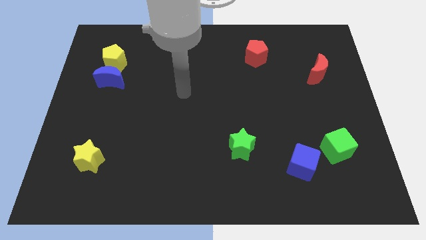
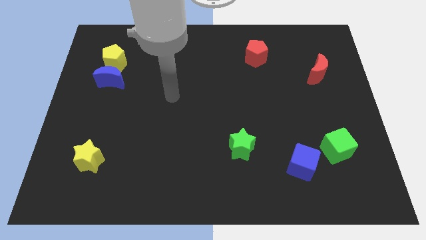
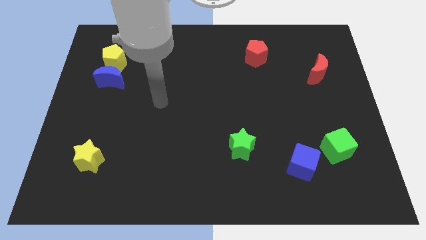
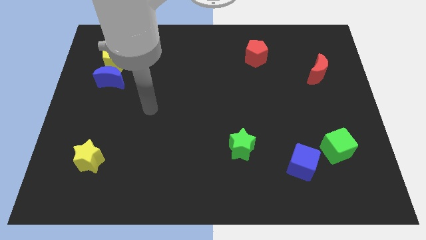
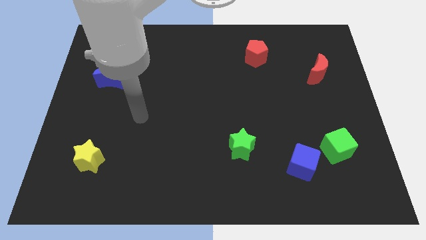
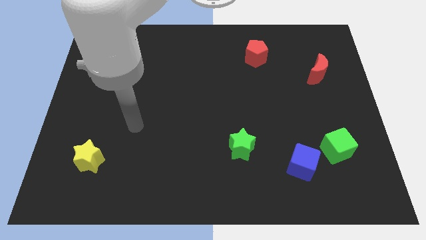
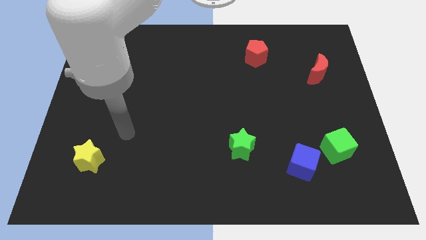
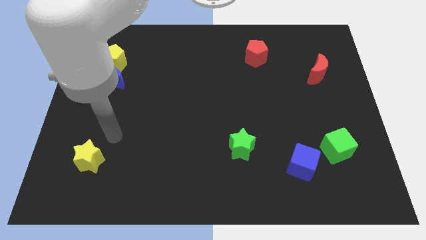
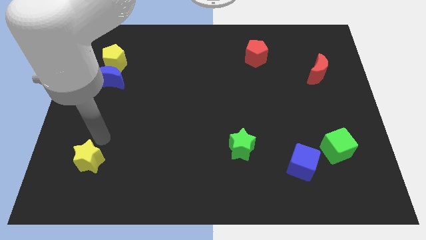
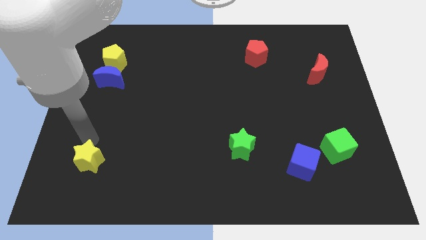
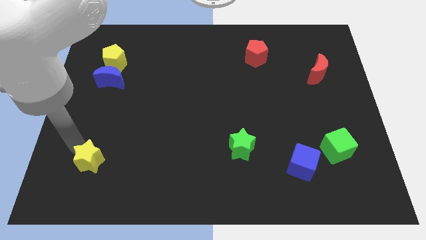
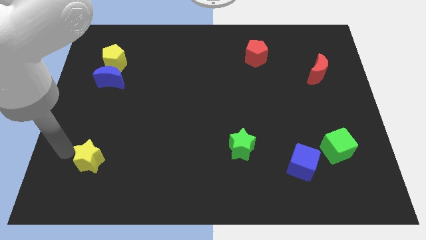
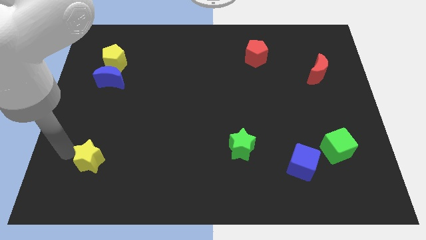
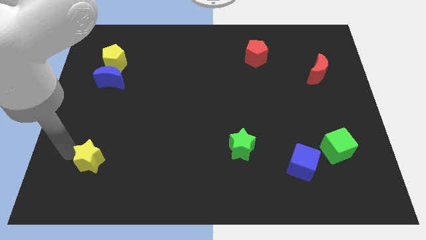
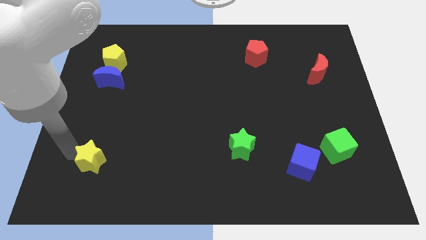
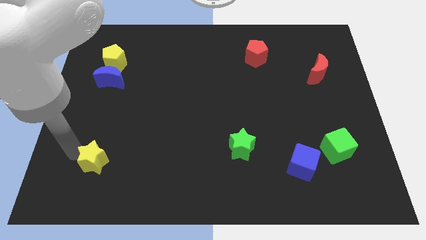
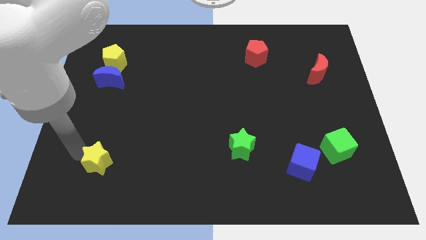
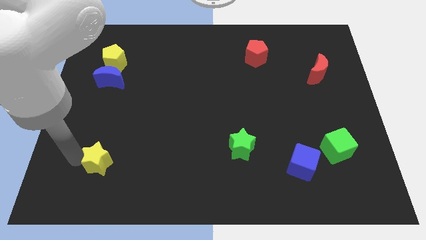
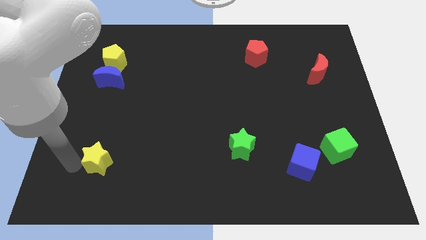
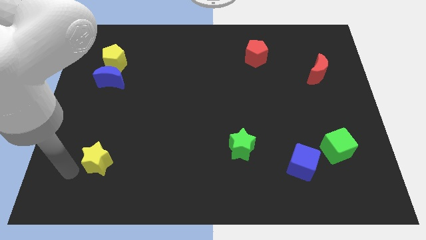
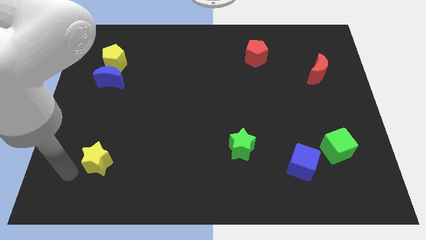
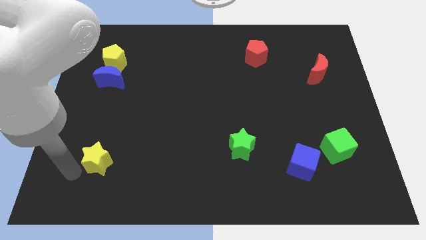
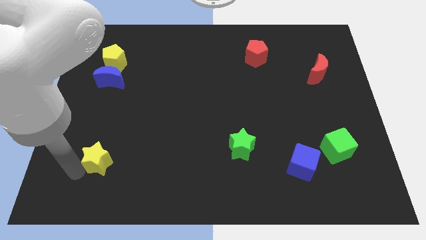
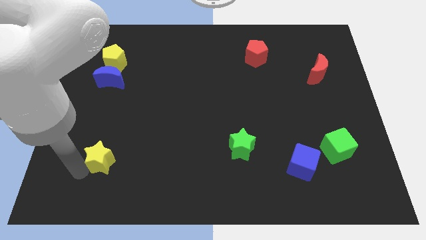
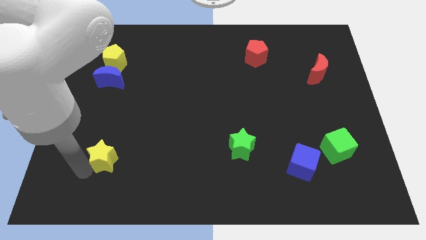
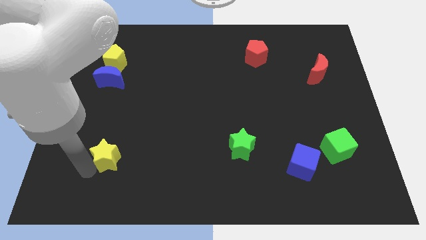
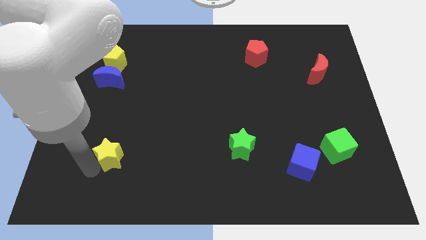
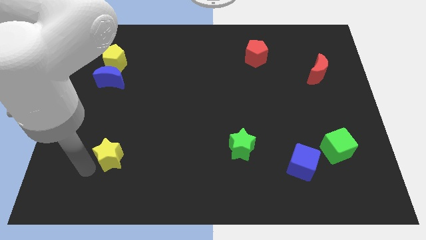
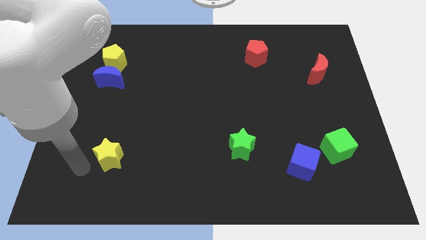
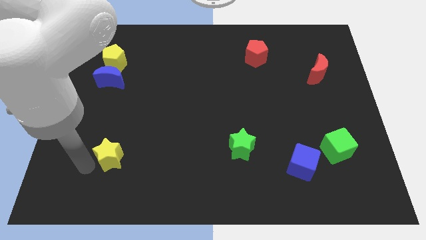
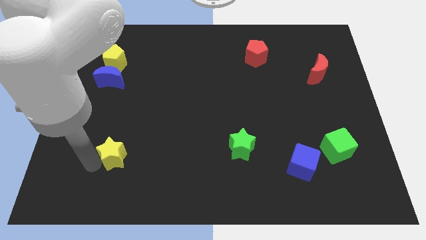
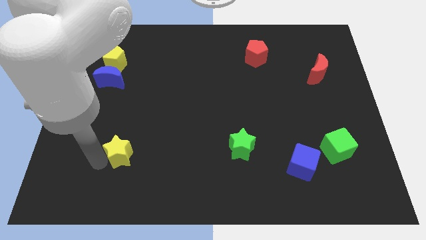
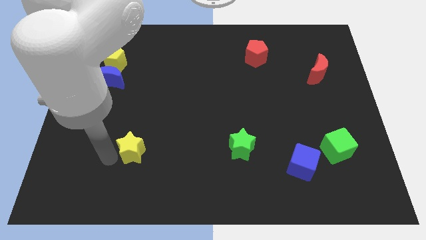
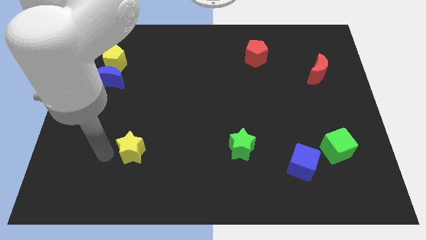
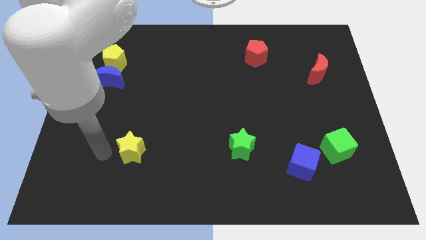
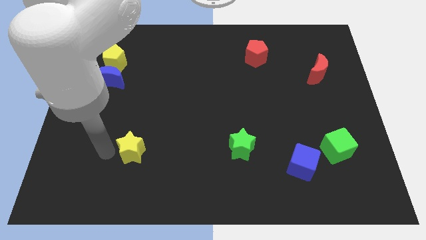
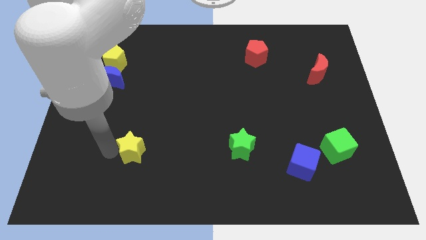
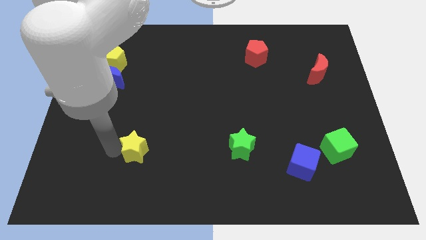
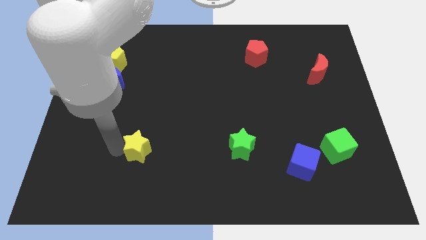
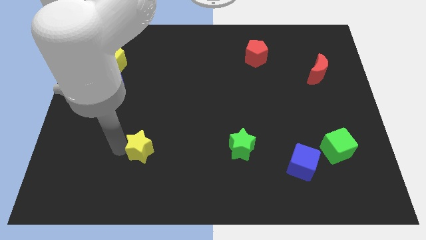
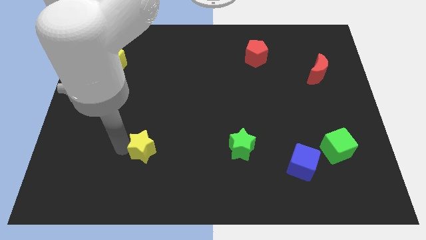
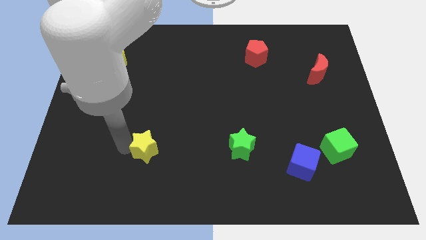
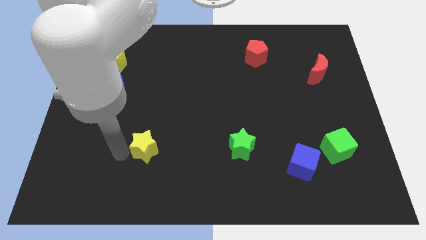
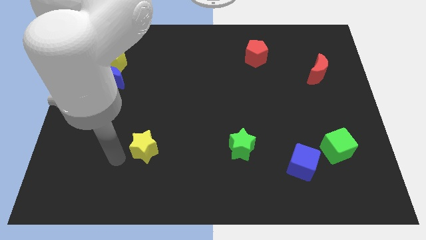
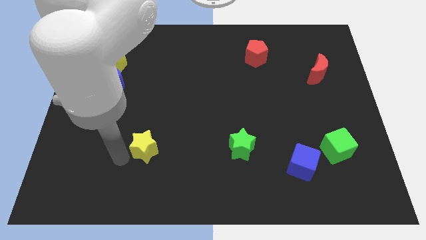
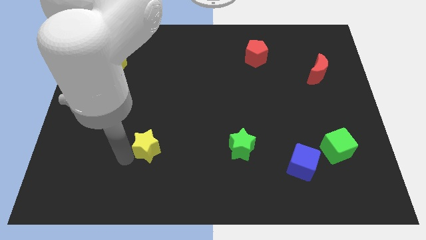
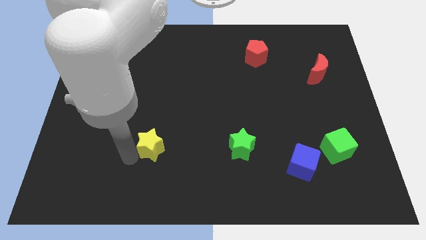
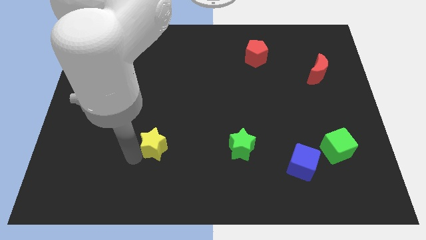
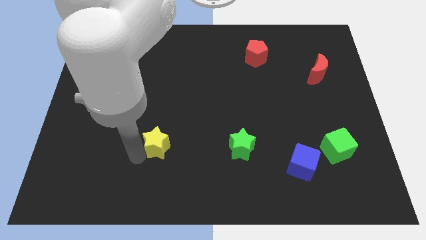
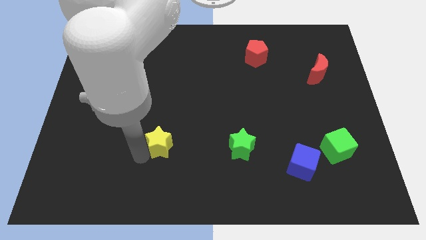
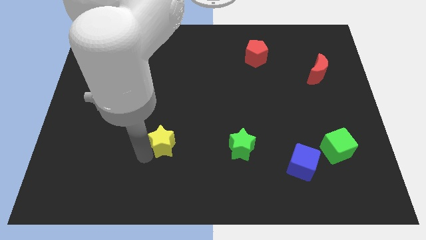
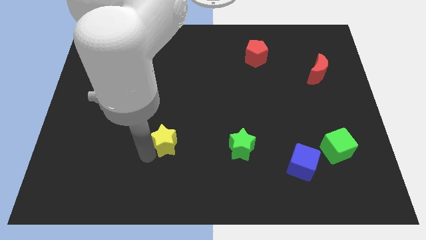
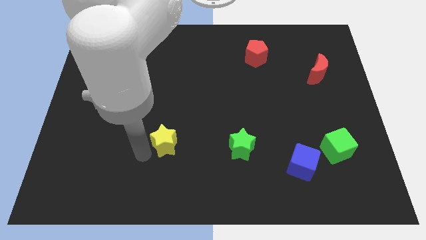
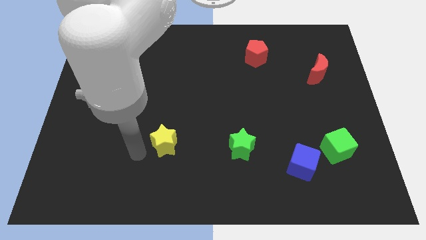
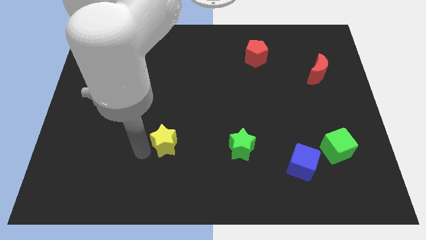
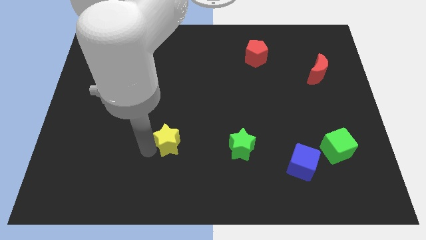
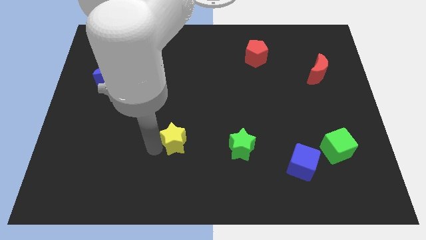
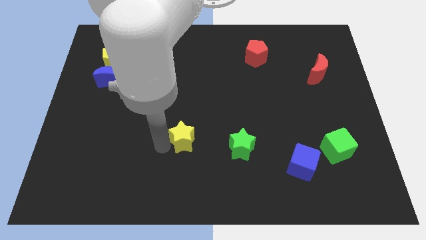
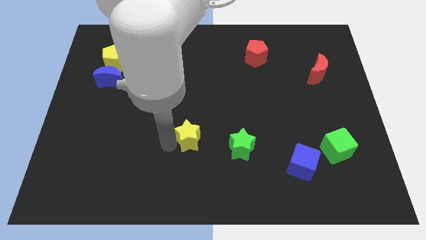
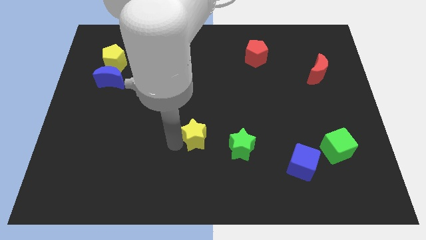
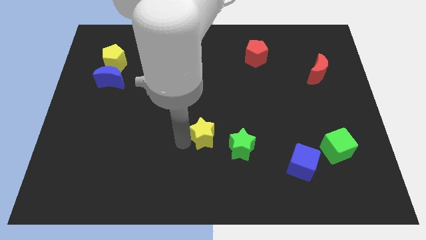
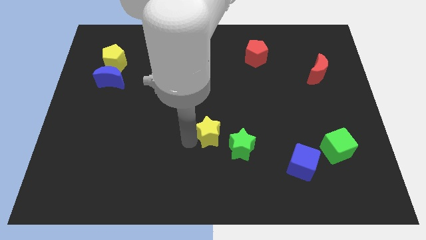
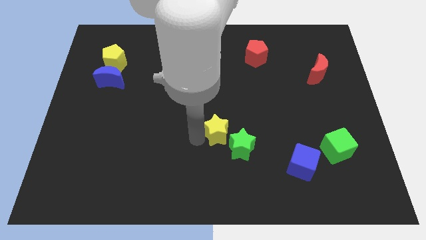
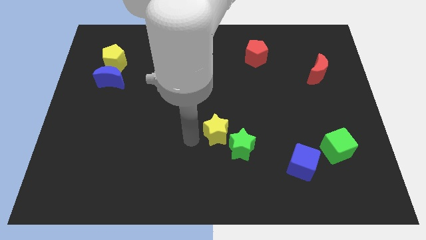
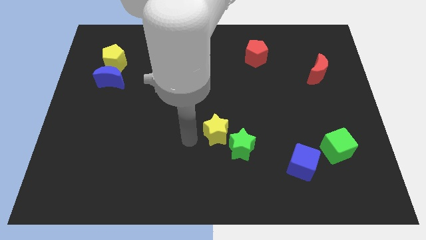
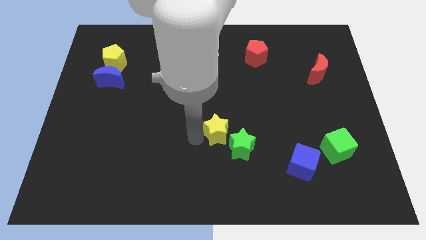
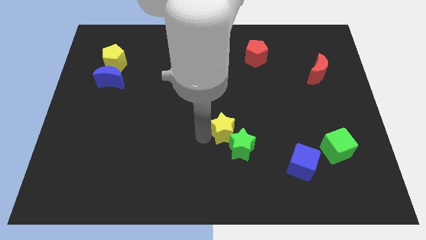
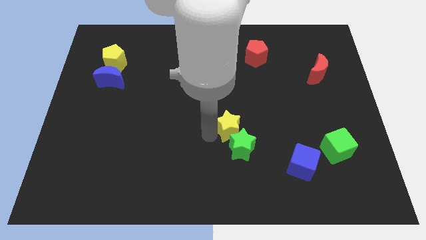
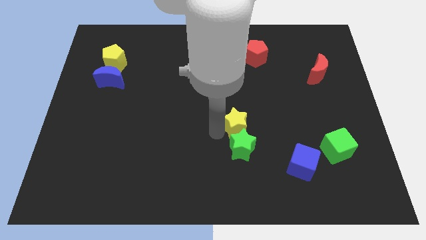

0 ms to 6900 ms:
slide the yellow star diagonally up and to the right of the green star
